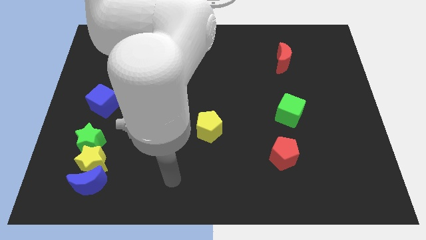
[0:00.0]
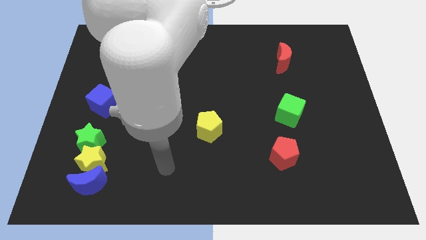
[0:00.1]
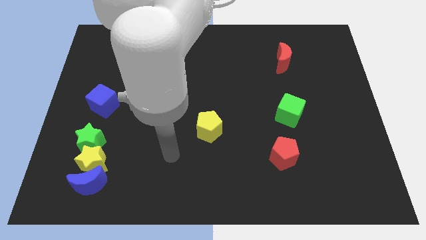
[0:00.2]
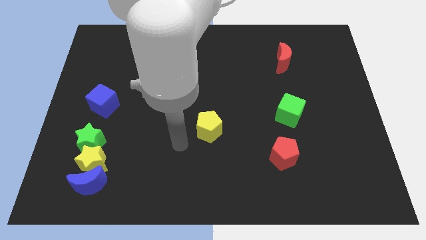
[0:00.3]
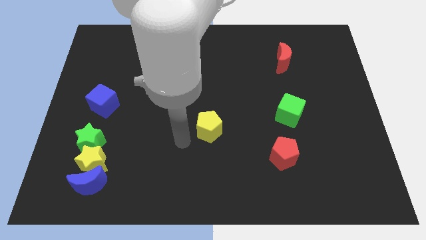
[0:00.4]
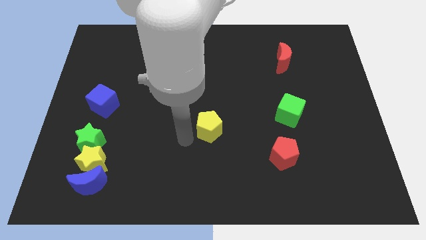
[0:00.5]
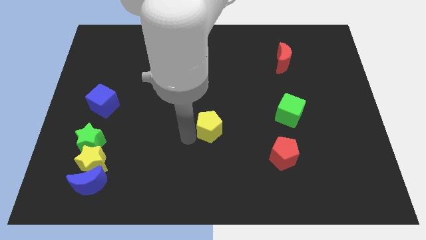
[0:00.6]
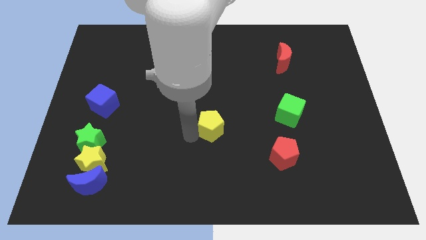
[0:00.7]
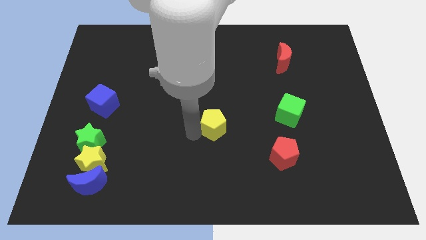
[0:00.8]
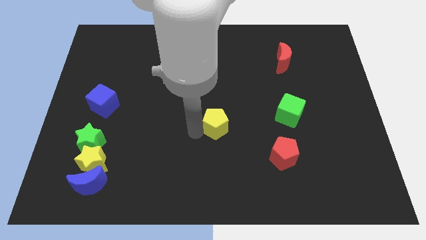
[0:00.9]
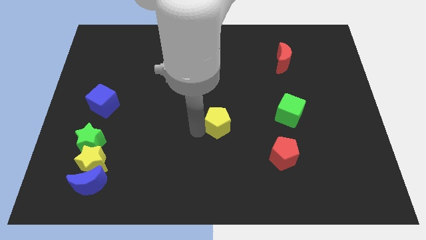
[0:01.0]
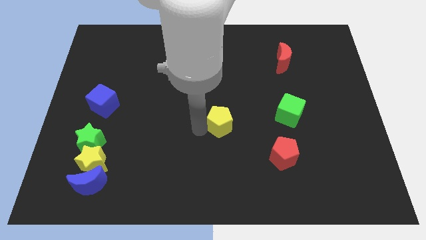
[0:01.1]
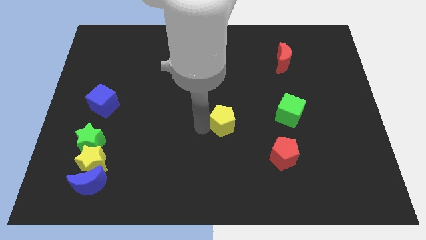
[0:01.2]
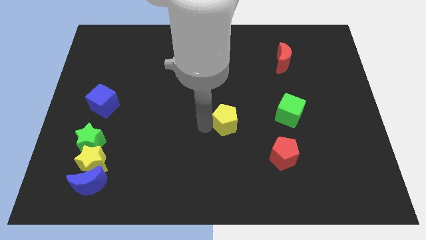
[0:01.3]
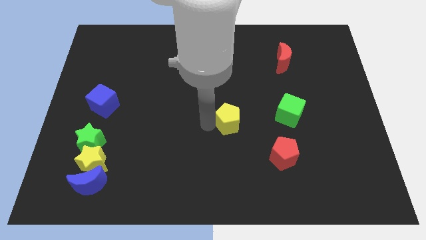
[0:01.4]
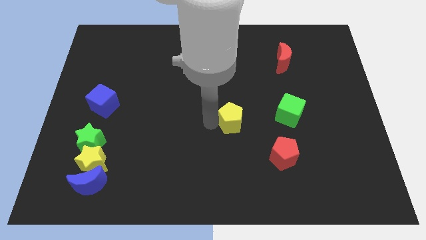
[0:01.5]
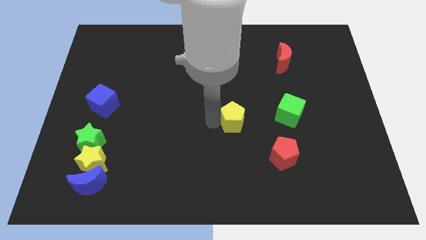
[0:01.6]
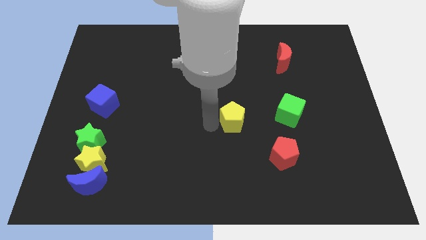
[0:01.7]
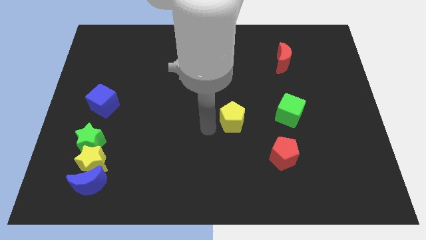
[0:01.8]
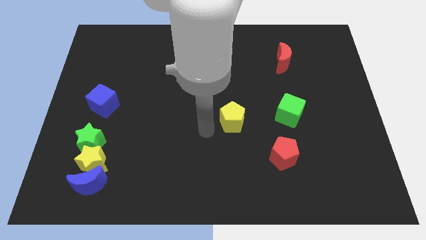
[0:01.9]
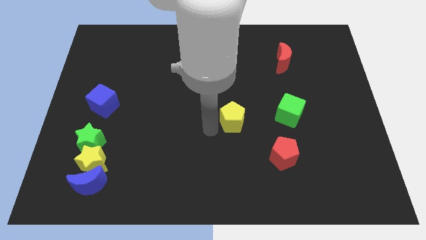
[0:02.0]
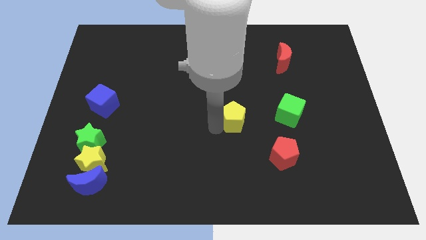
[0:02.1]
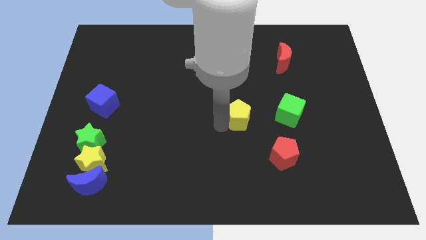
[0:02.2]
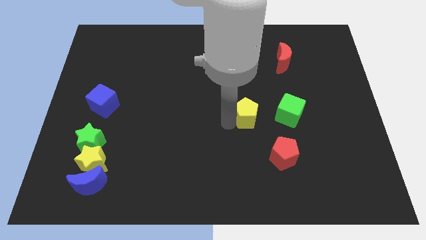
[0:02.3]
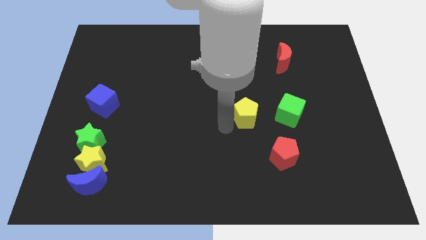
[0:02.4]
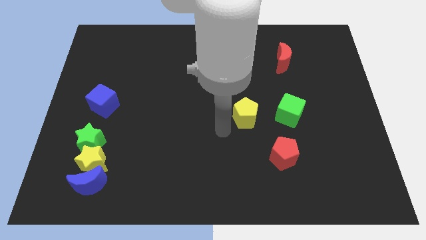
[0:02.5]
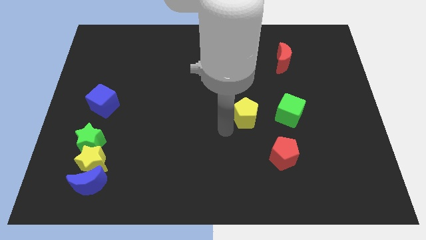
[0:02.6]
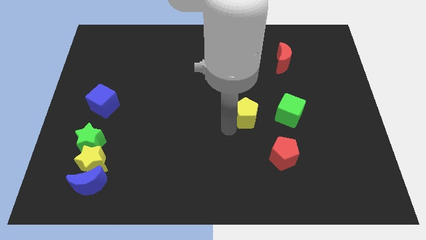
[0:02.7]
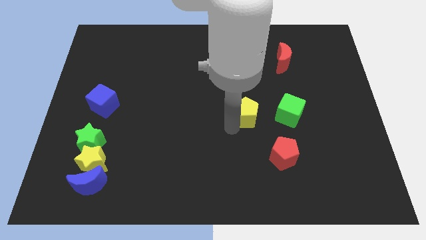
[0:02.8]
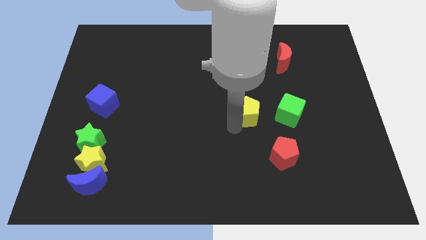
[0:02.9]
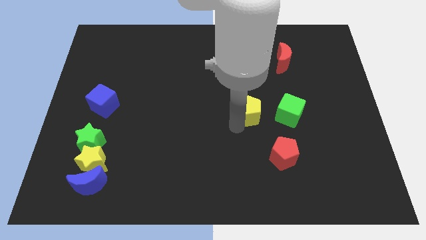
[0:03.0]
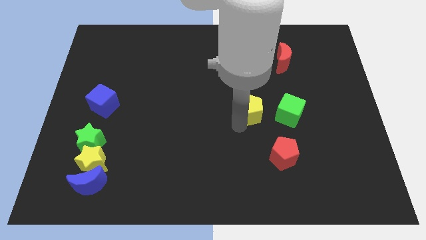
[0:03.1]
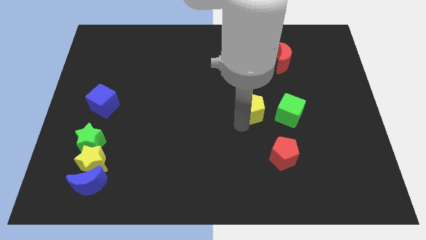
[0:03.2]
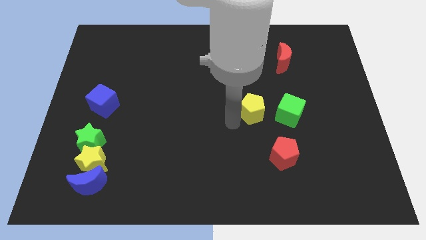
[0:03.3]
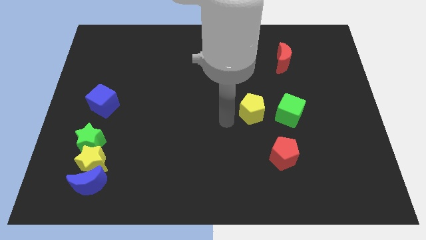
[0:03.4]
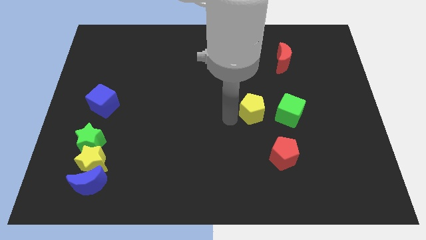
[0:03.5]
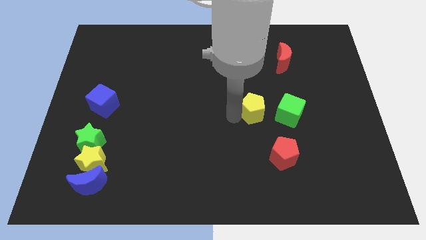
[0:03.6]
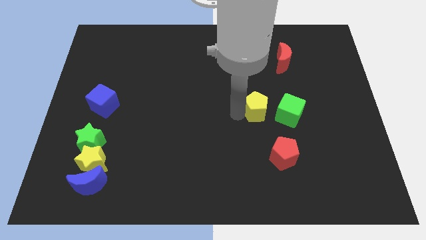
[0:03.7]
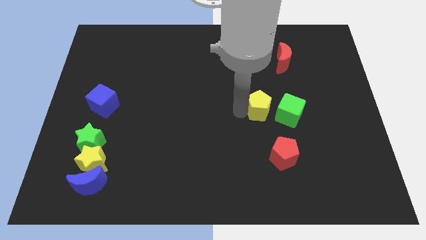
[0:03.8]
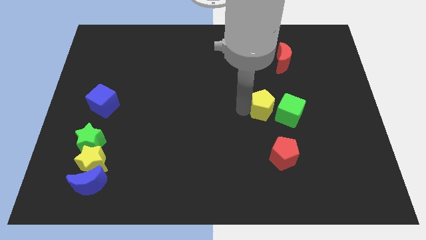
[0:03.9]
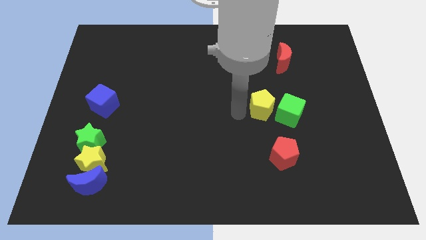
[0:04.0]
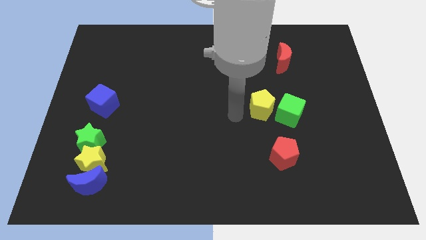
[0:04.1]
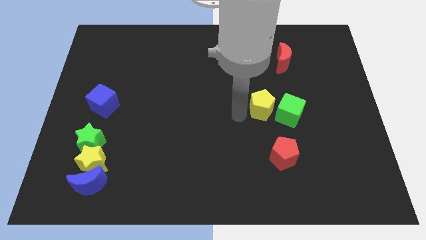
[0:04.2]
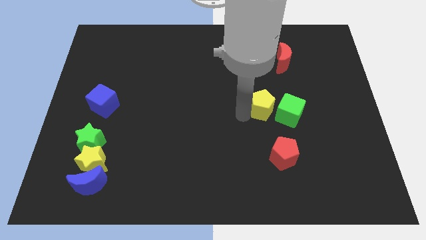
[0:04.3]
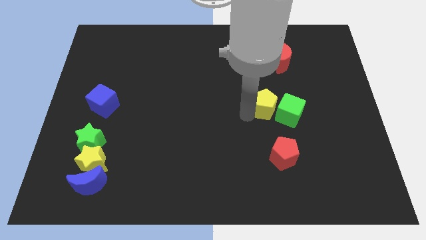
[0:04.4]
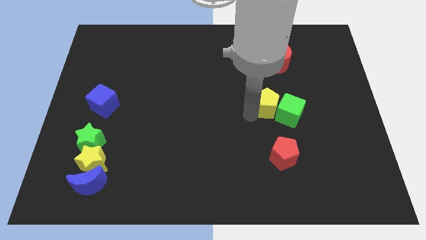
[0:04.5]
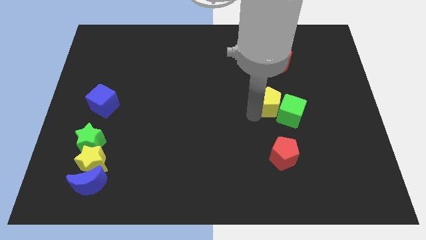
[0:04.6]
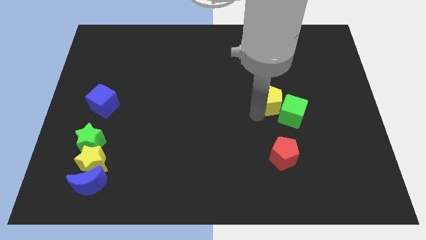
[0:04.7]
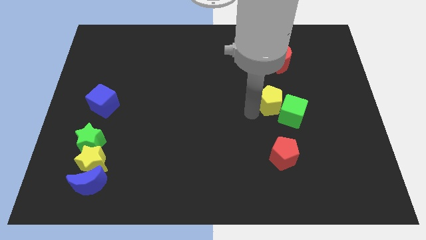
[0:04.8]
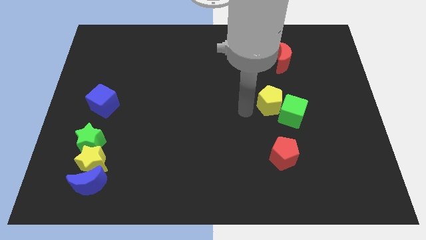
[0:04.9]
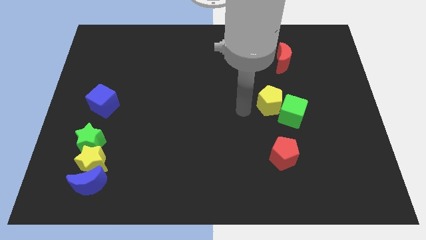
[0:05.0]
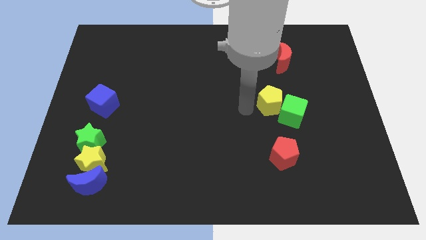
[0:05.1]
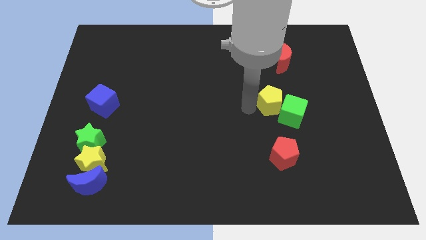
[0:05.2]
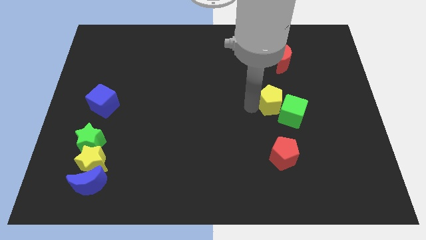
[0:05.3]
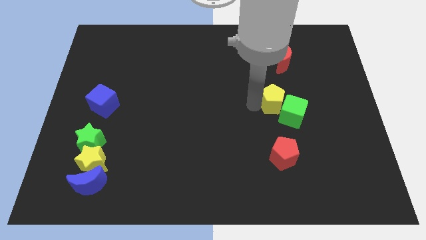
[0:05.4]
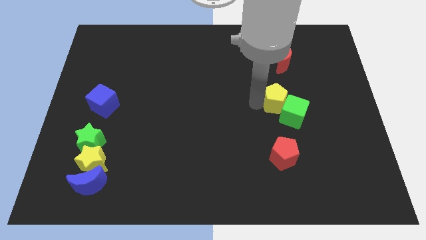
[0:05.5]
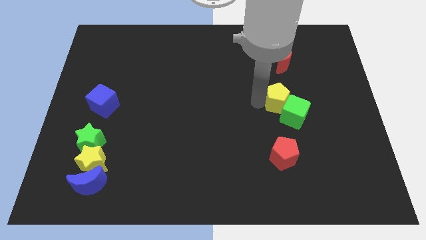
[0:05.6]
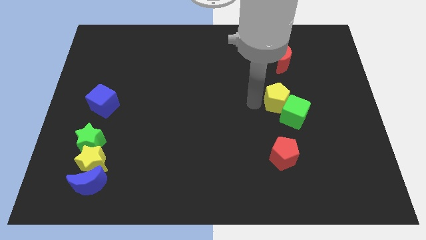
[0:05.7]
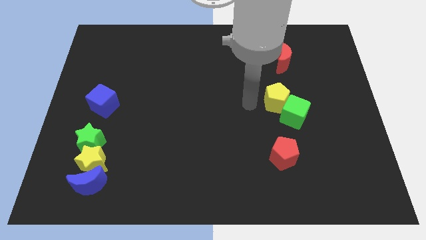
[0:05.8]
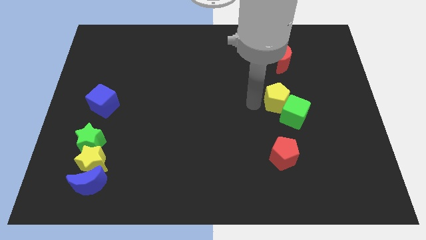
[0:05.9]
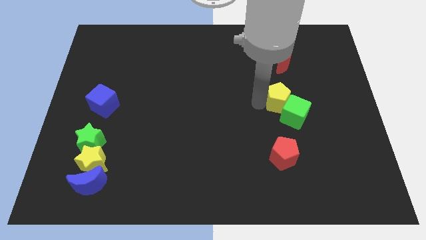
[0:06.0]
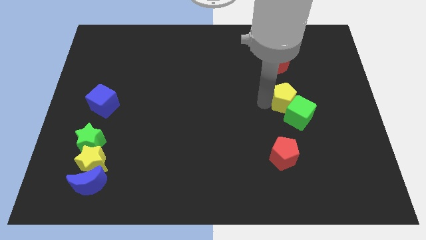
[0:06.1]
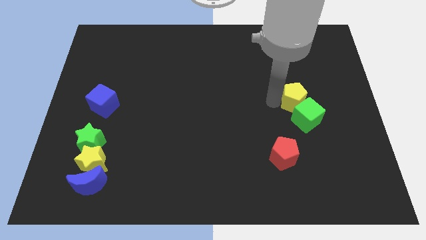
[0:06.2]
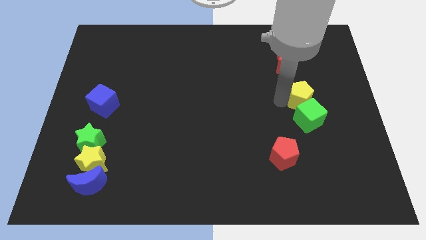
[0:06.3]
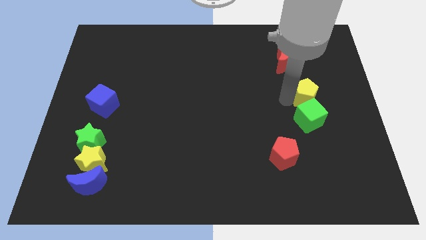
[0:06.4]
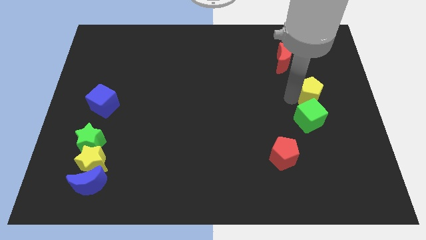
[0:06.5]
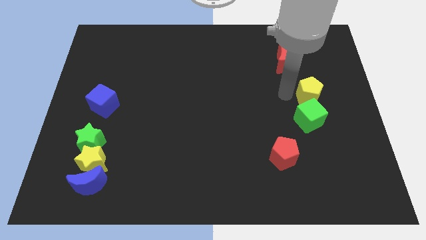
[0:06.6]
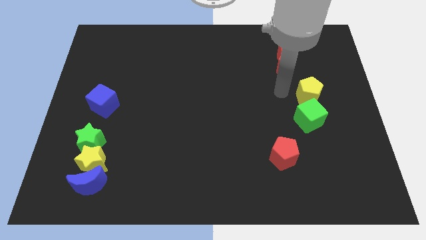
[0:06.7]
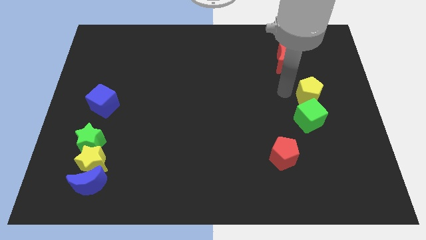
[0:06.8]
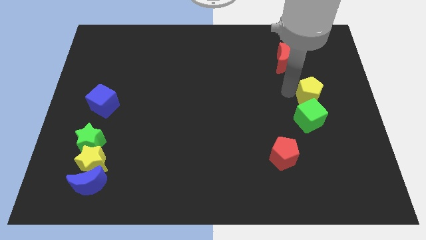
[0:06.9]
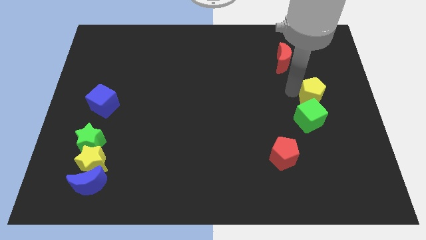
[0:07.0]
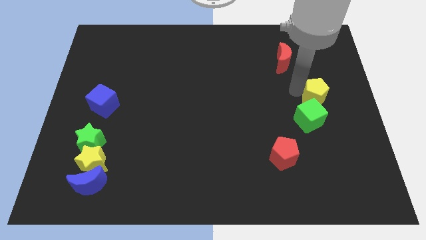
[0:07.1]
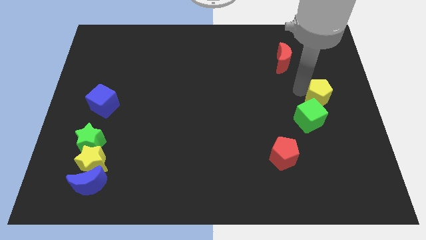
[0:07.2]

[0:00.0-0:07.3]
put the yellow pentagon to the right side
